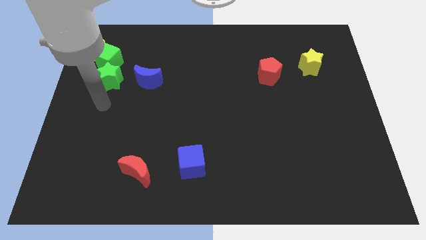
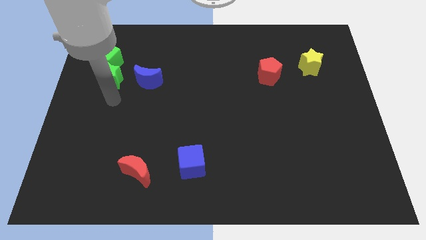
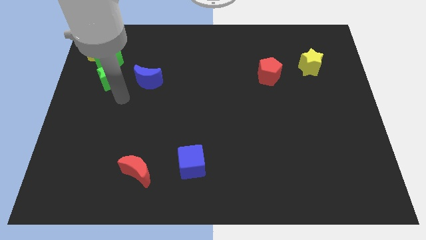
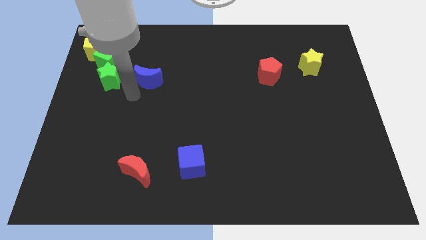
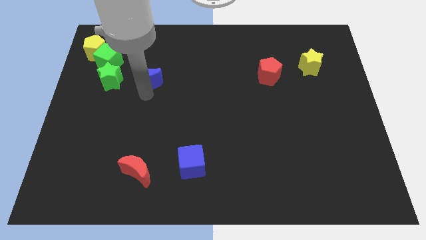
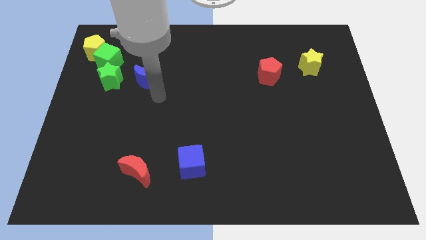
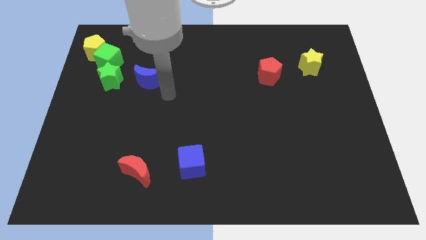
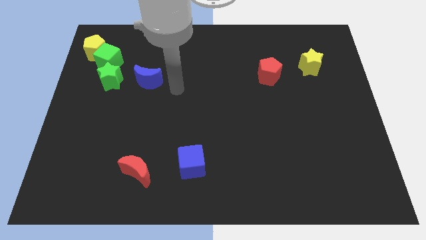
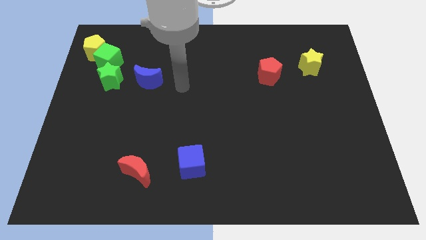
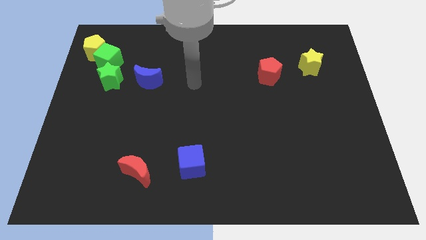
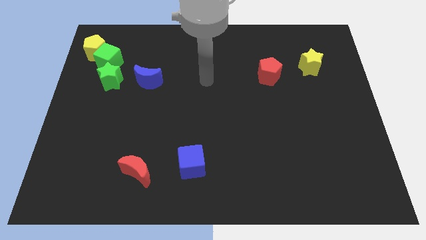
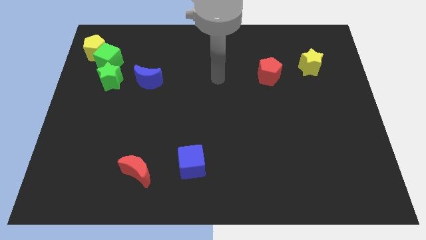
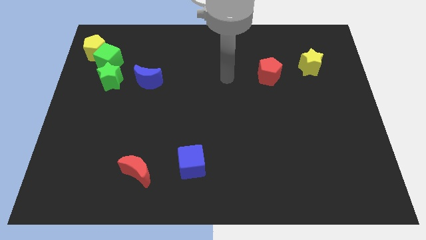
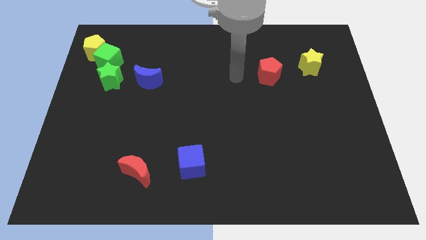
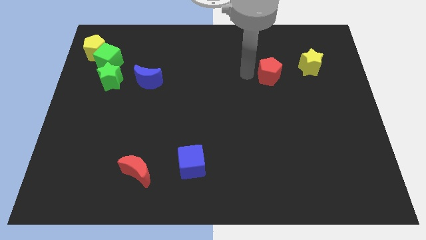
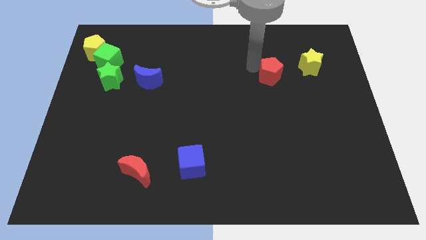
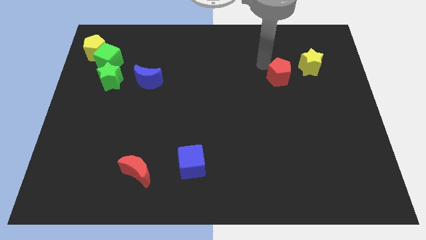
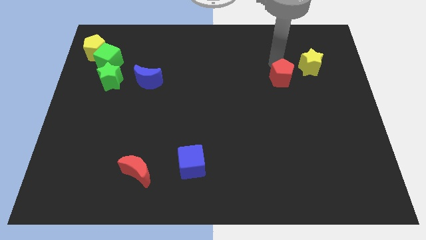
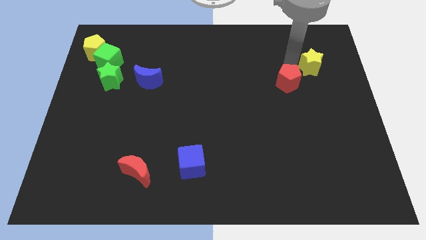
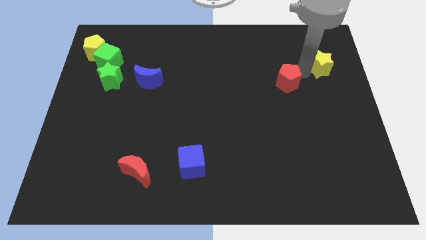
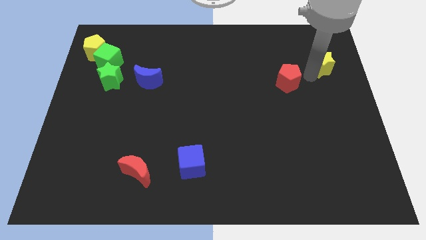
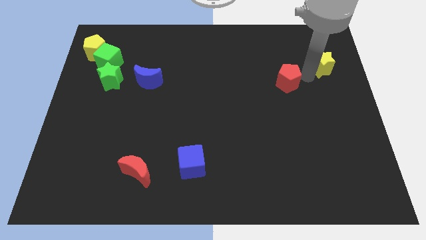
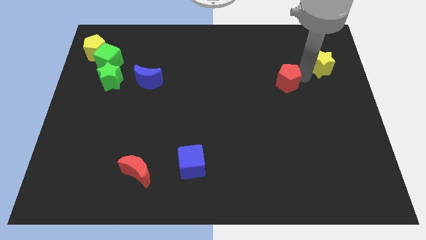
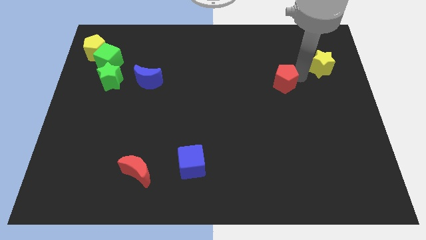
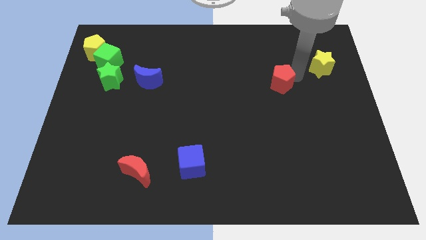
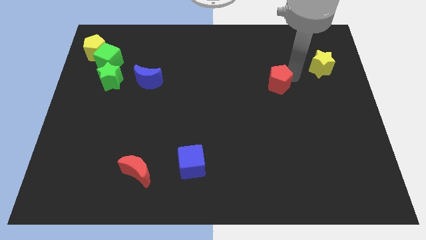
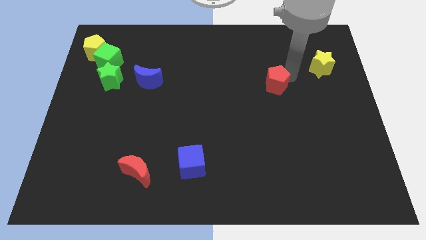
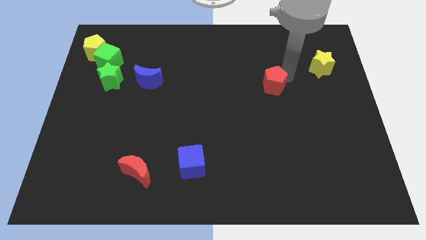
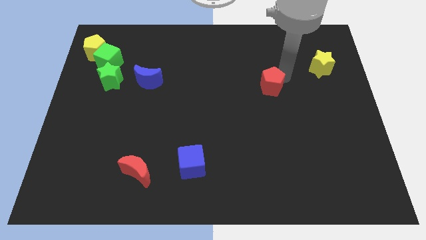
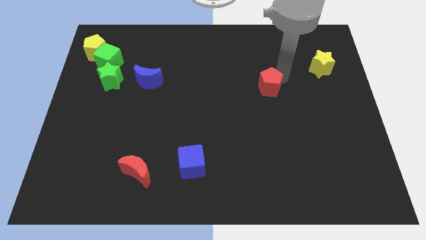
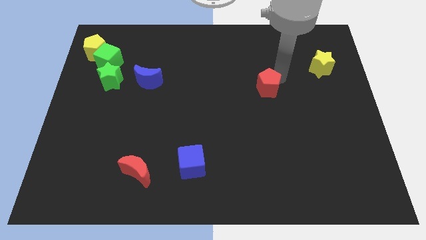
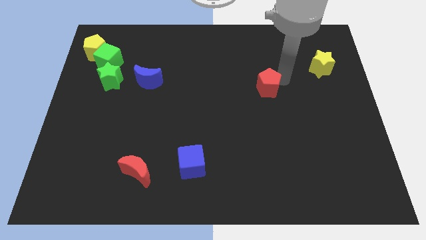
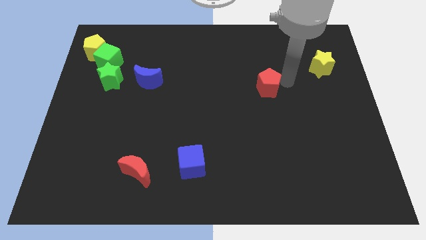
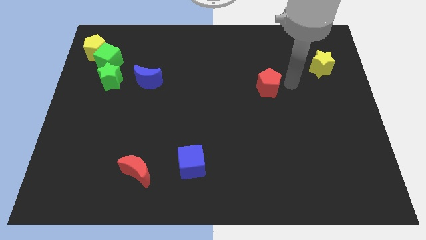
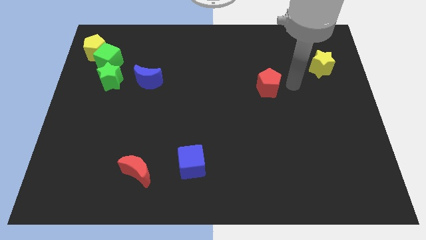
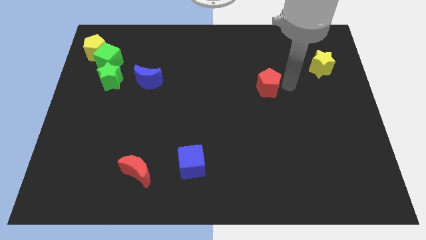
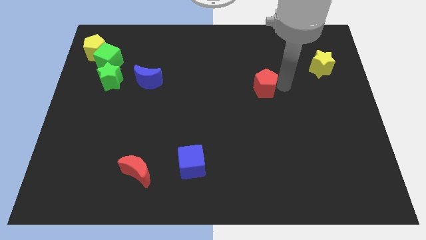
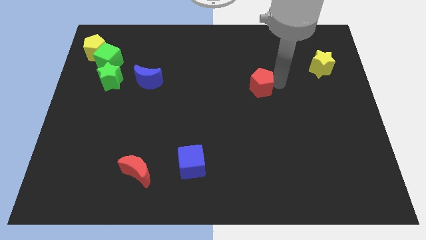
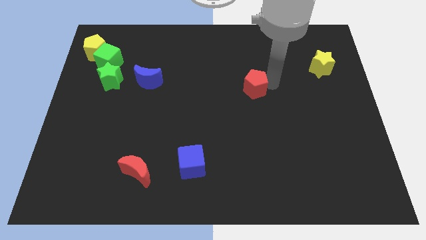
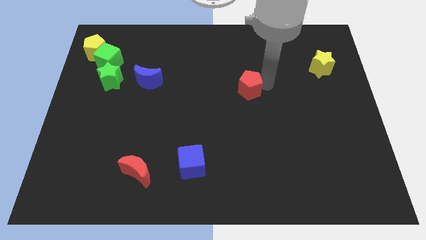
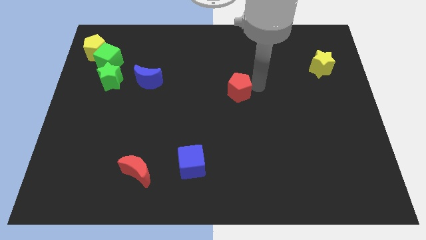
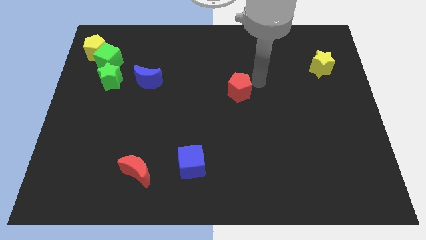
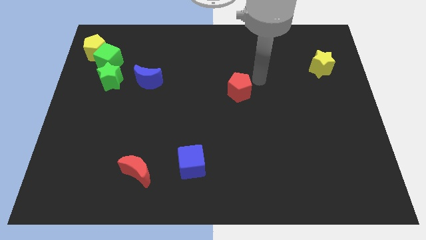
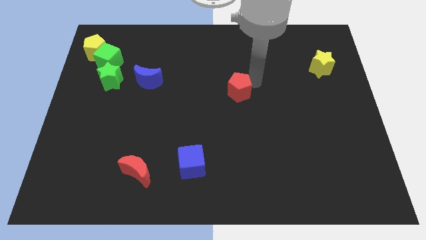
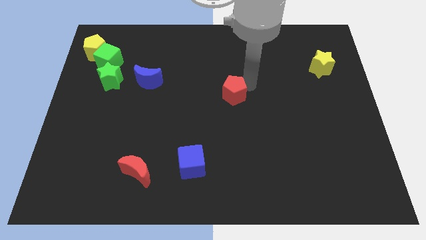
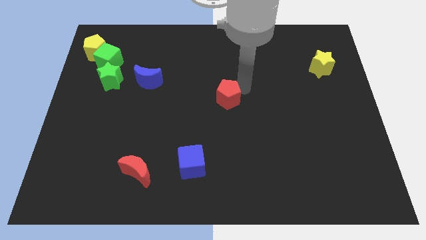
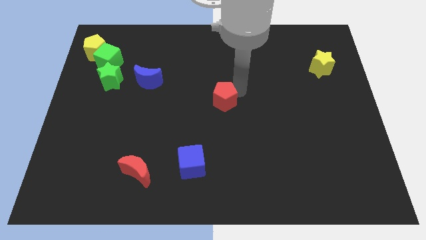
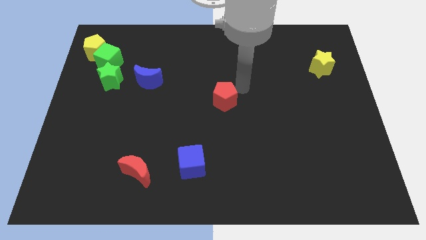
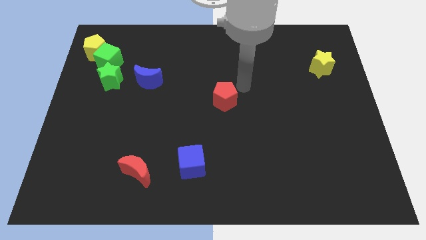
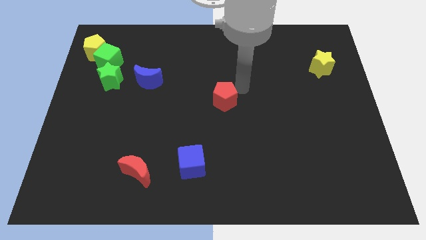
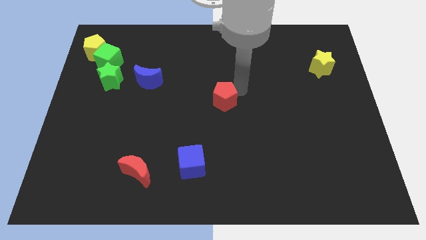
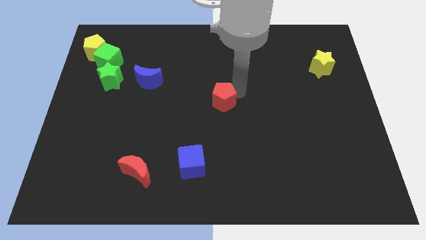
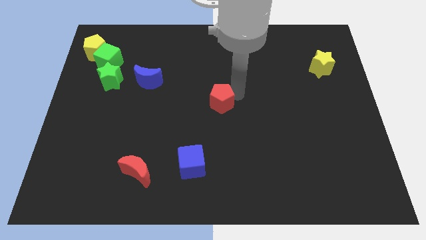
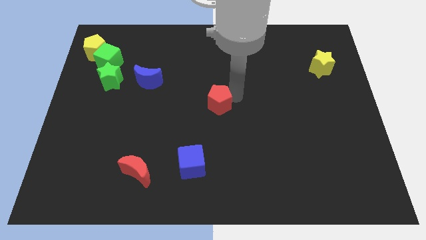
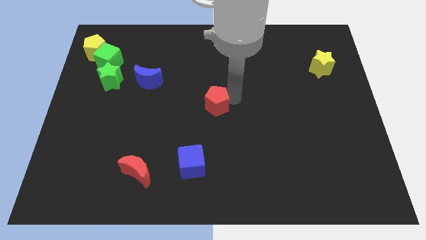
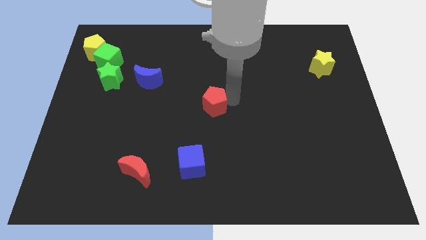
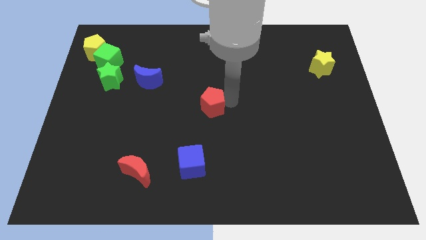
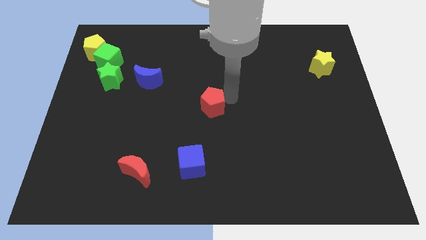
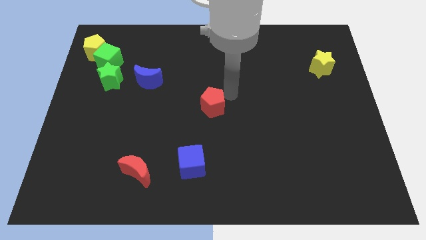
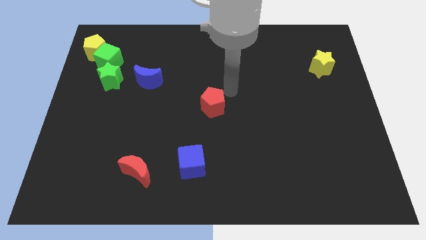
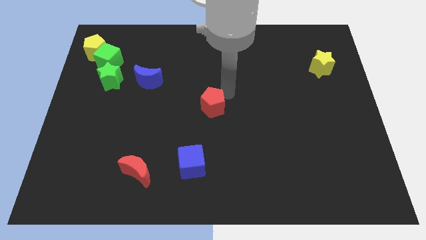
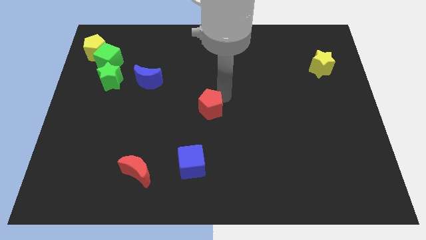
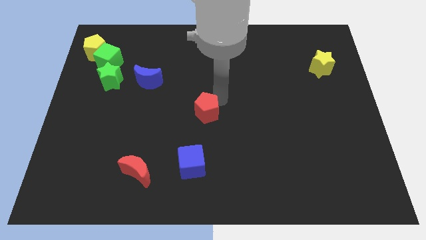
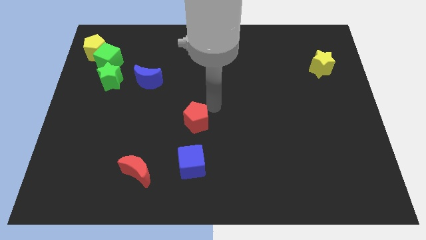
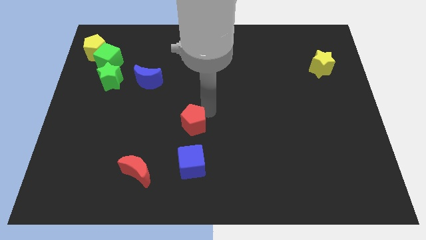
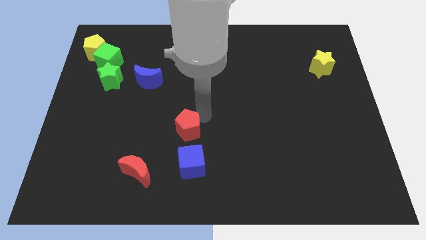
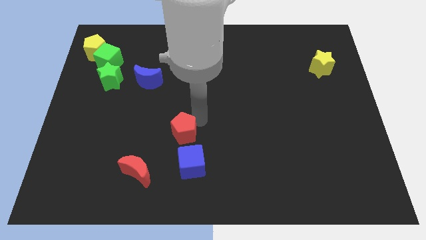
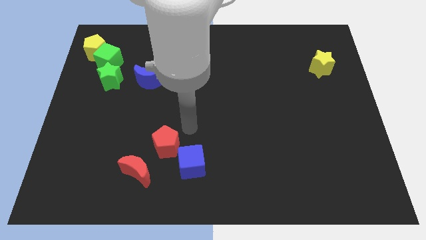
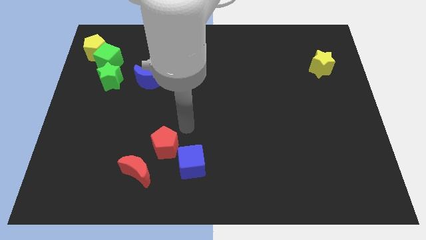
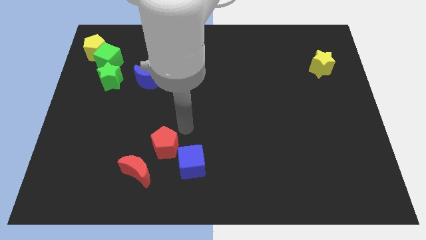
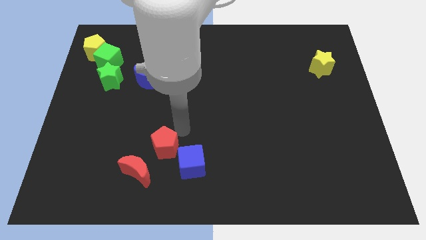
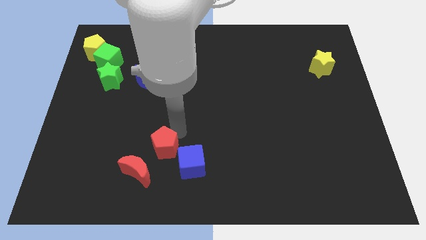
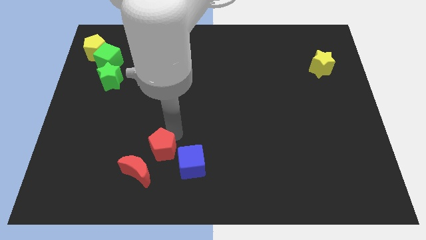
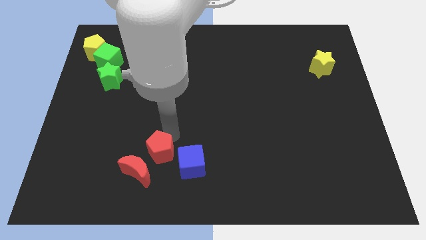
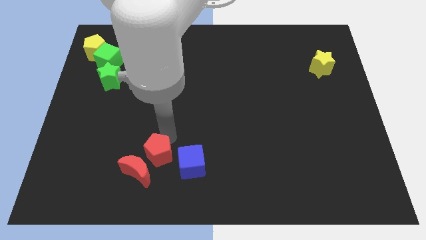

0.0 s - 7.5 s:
move the red pentagon close to the red moon
